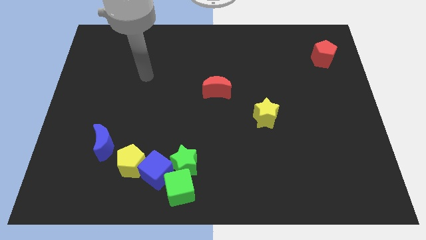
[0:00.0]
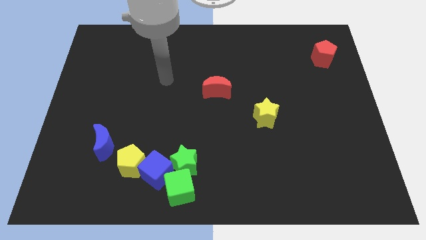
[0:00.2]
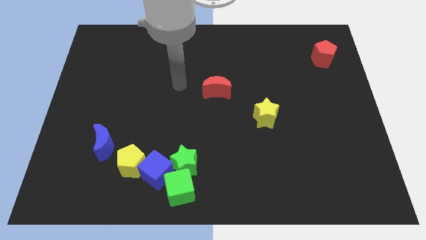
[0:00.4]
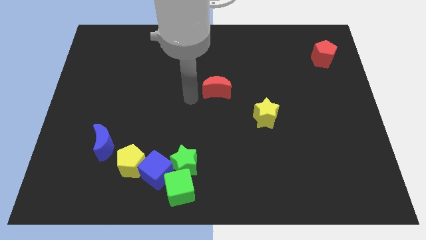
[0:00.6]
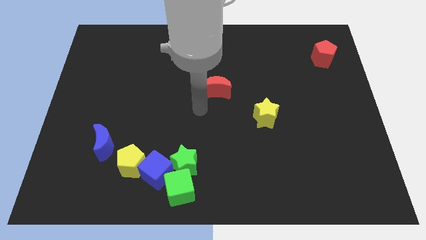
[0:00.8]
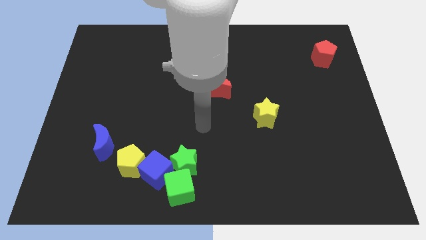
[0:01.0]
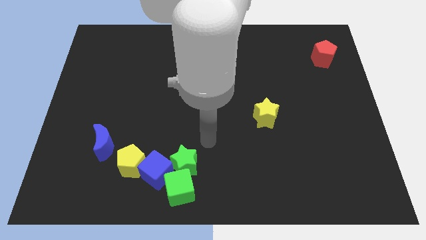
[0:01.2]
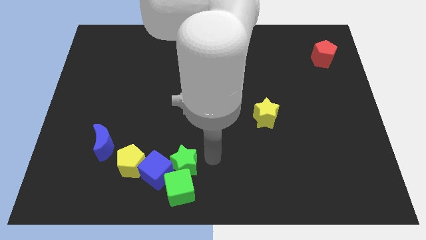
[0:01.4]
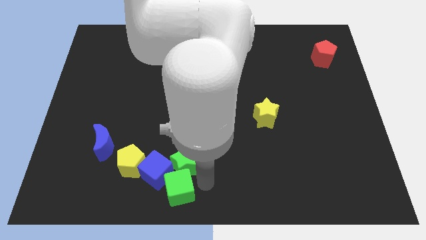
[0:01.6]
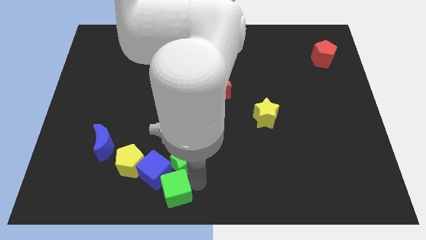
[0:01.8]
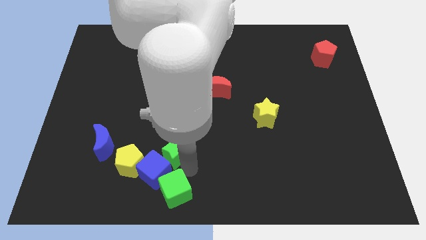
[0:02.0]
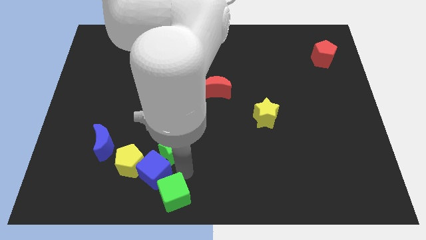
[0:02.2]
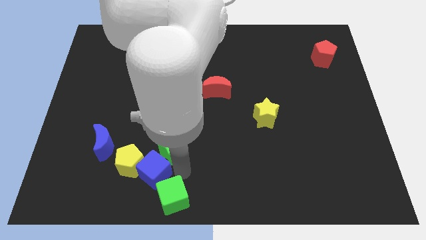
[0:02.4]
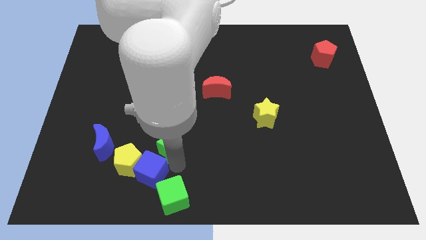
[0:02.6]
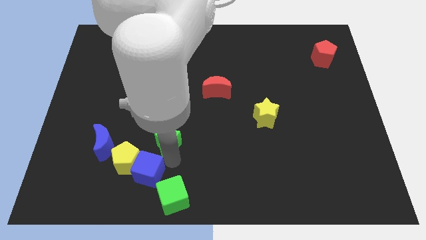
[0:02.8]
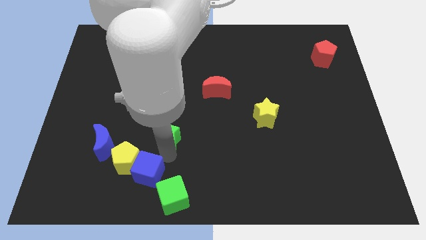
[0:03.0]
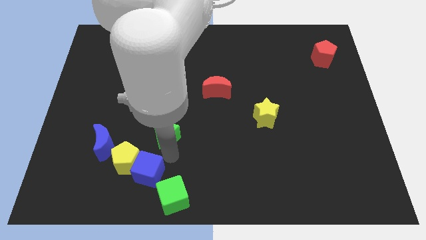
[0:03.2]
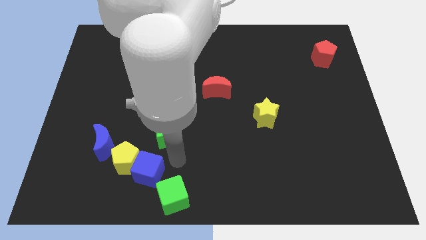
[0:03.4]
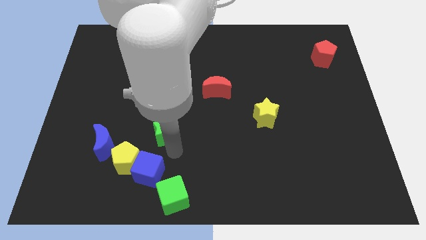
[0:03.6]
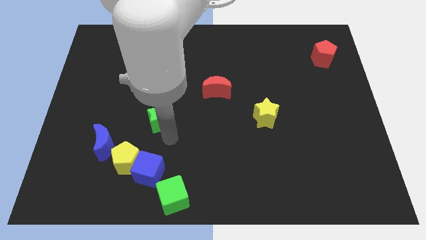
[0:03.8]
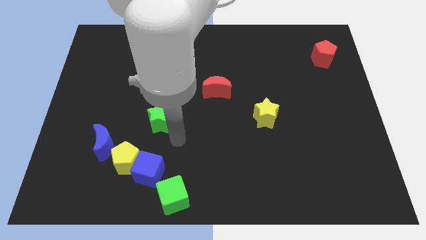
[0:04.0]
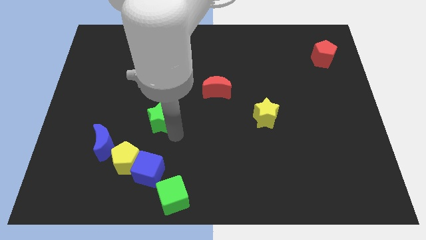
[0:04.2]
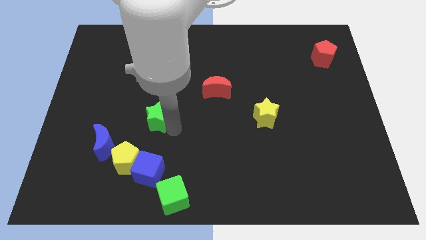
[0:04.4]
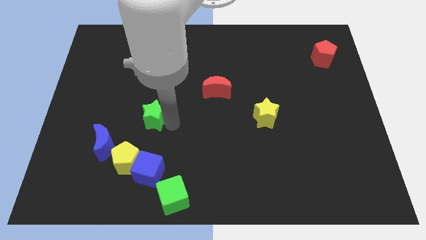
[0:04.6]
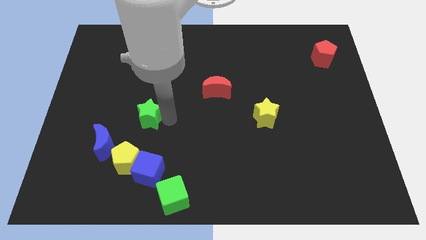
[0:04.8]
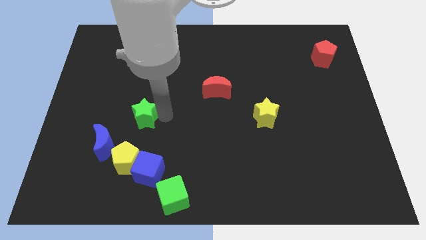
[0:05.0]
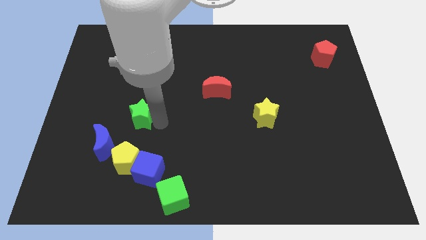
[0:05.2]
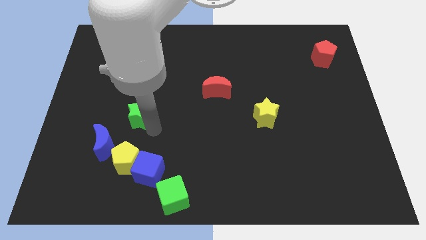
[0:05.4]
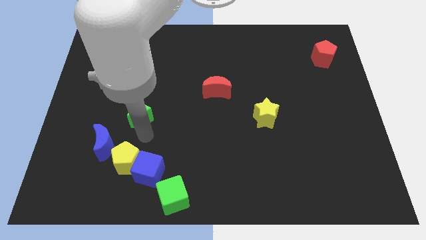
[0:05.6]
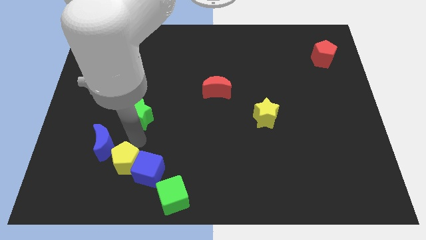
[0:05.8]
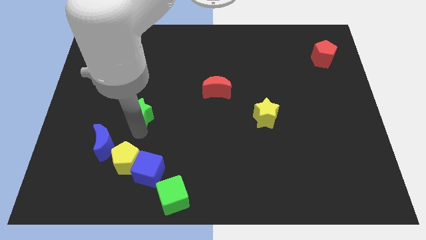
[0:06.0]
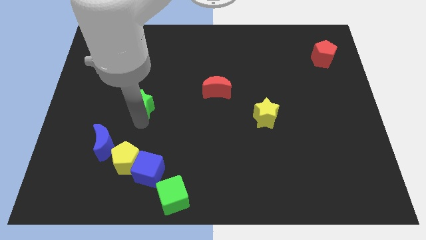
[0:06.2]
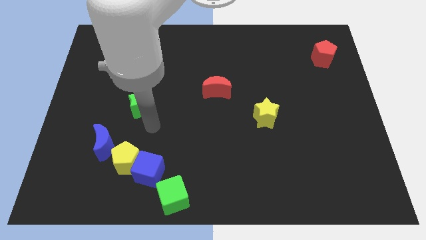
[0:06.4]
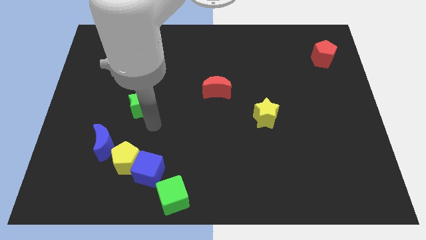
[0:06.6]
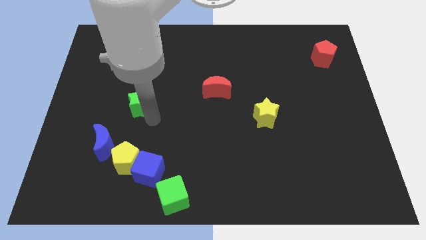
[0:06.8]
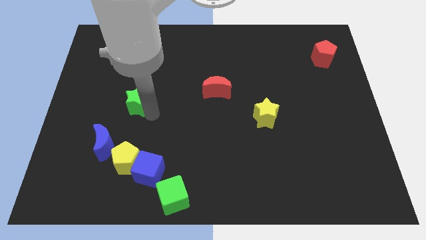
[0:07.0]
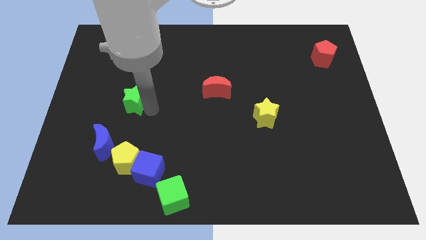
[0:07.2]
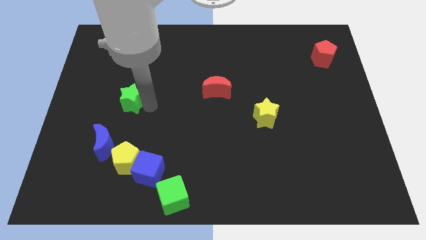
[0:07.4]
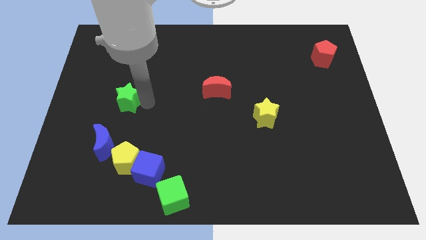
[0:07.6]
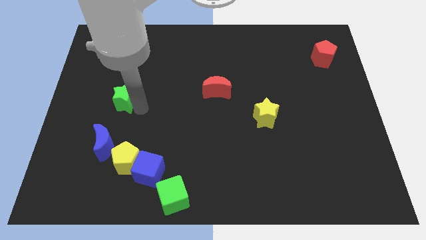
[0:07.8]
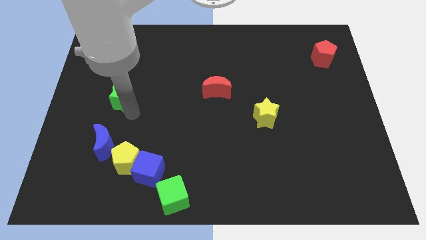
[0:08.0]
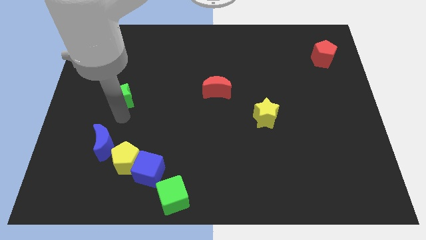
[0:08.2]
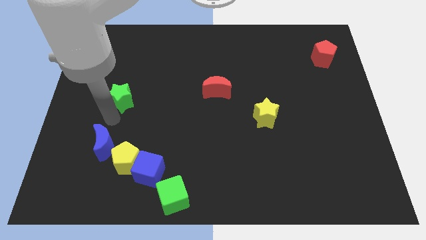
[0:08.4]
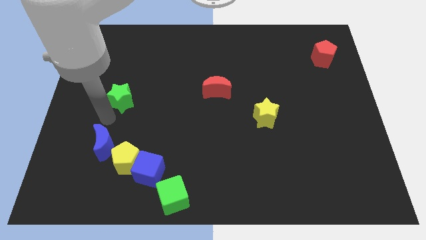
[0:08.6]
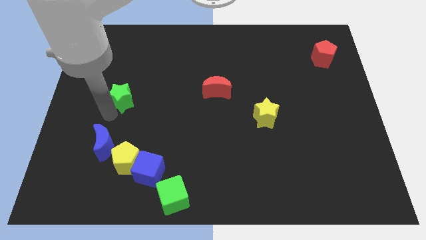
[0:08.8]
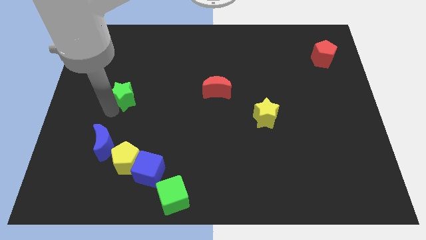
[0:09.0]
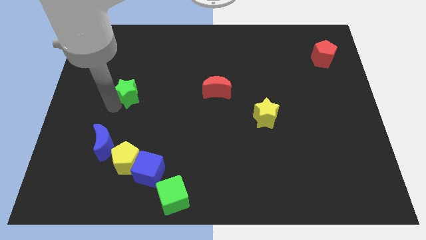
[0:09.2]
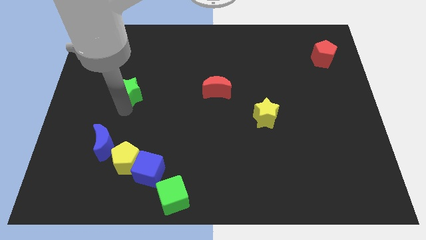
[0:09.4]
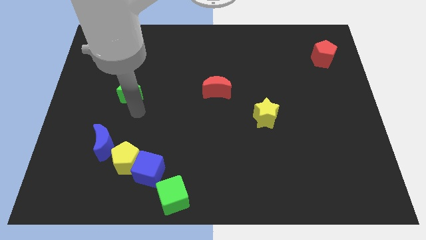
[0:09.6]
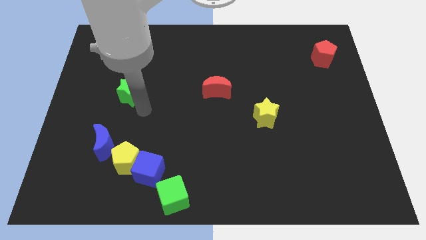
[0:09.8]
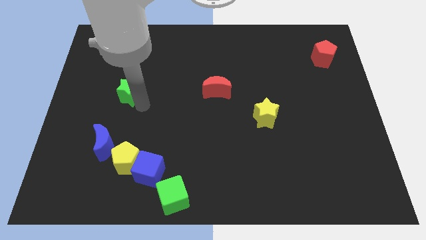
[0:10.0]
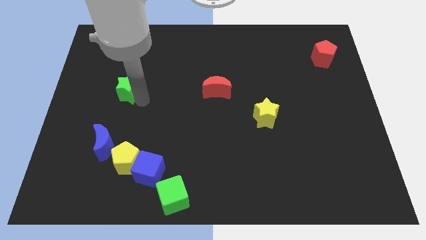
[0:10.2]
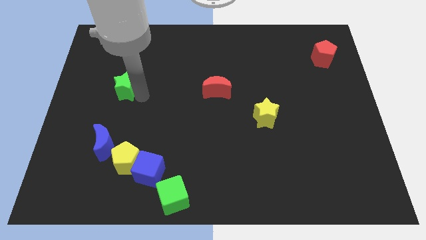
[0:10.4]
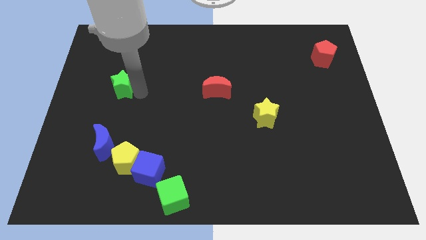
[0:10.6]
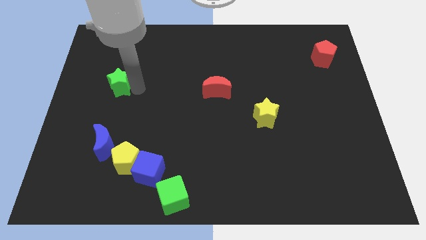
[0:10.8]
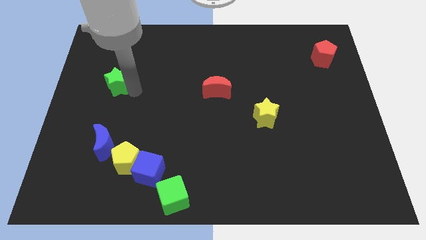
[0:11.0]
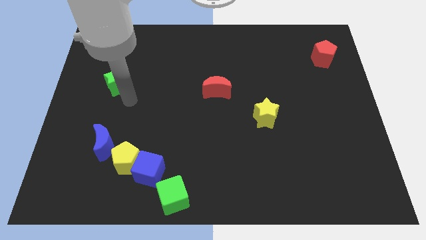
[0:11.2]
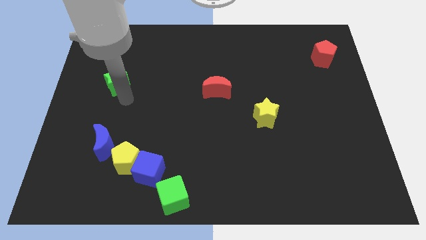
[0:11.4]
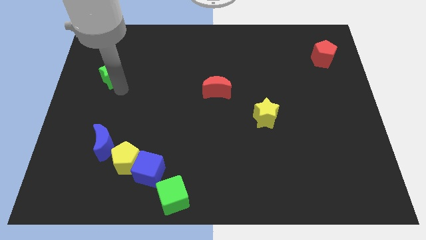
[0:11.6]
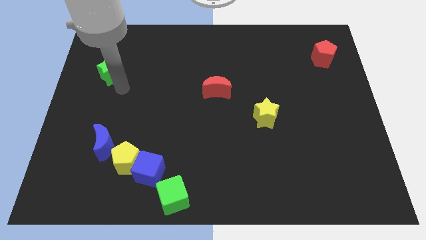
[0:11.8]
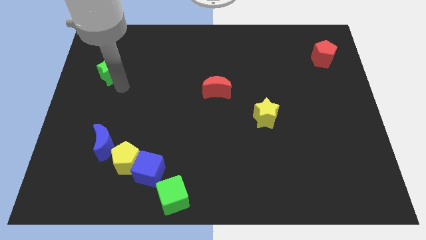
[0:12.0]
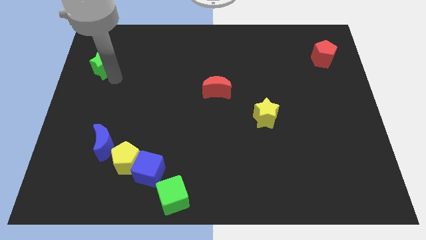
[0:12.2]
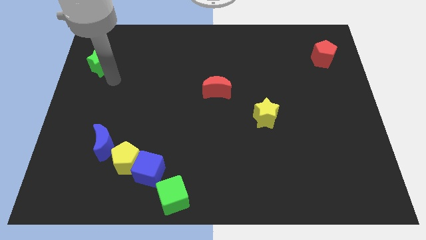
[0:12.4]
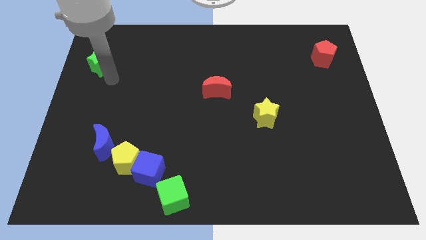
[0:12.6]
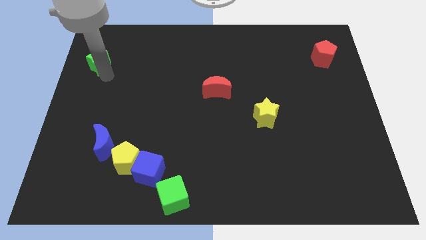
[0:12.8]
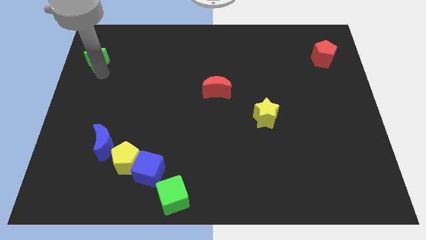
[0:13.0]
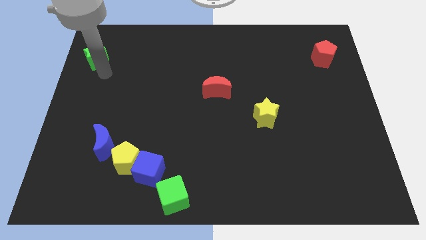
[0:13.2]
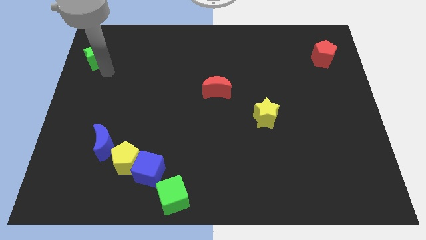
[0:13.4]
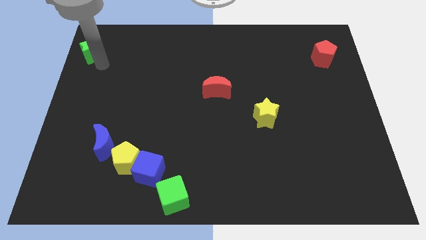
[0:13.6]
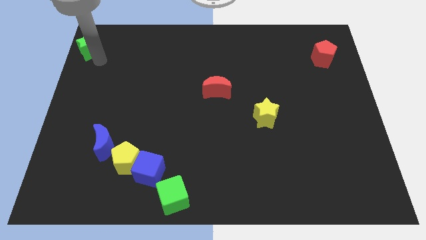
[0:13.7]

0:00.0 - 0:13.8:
push the green star to the top left of the board

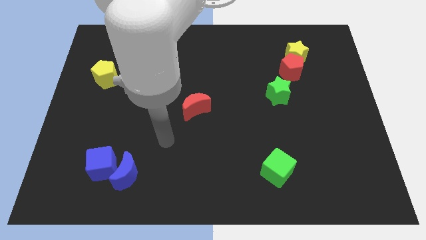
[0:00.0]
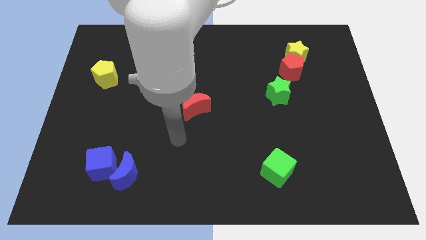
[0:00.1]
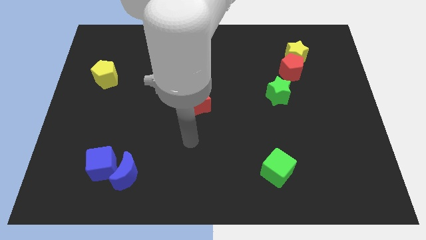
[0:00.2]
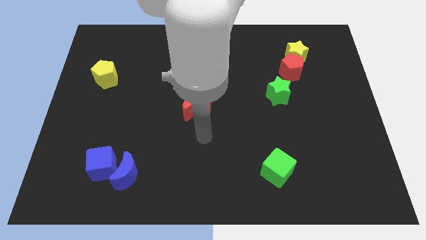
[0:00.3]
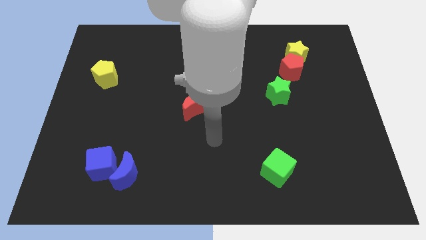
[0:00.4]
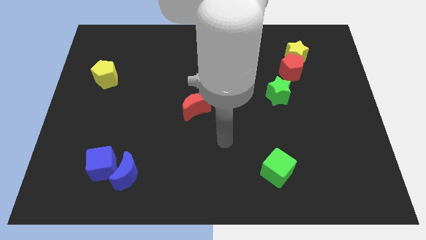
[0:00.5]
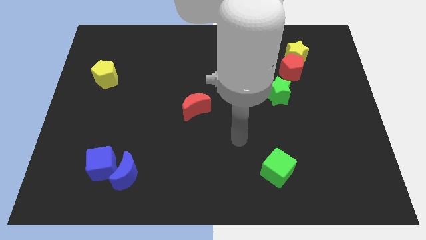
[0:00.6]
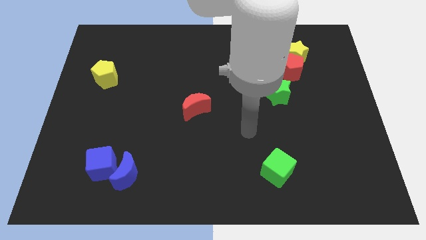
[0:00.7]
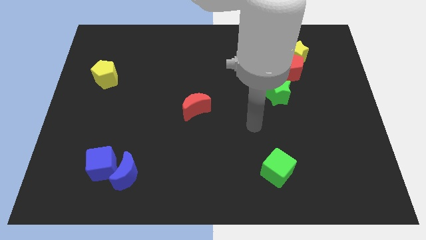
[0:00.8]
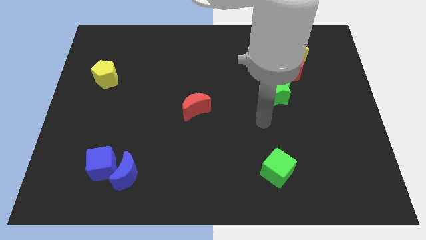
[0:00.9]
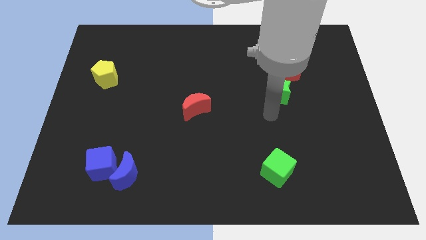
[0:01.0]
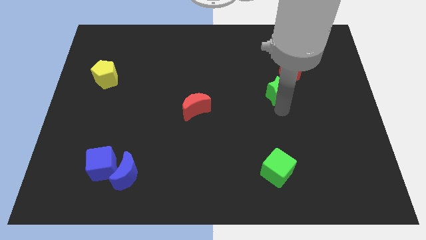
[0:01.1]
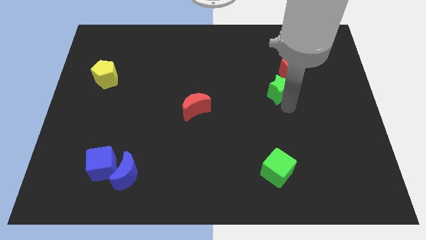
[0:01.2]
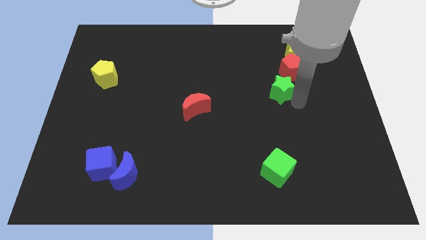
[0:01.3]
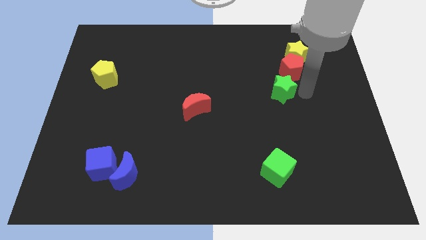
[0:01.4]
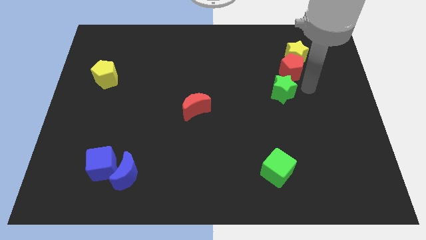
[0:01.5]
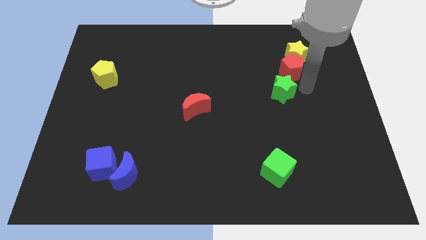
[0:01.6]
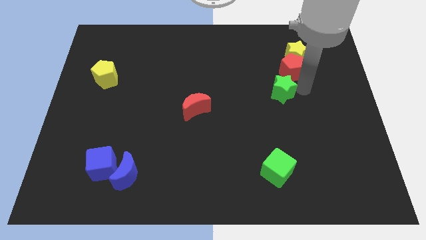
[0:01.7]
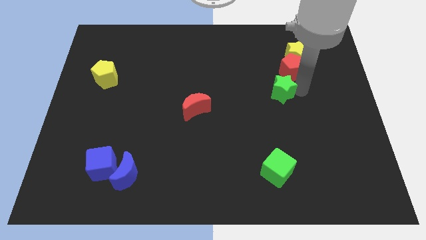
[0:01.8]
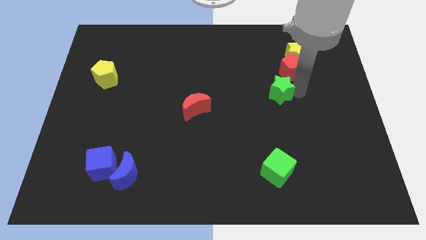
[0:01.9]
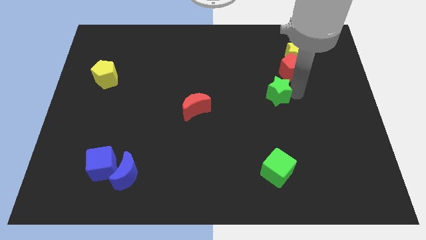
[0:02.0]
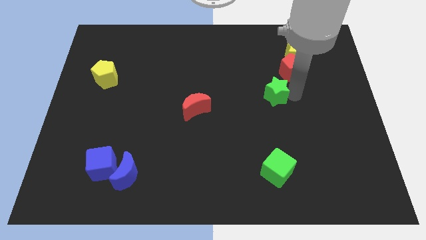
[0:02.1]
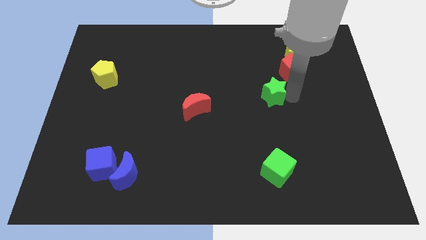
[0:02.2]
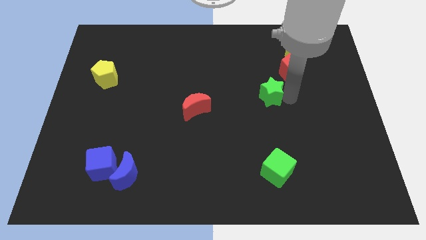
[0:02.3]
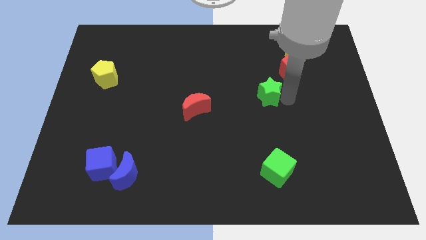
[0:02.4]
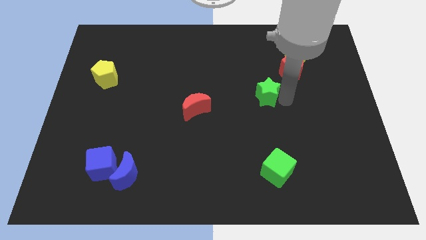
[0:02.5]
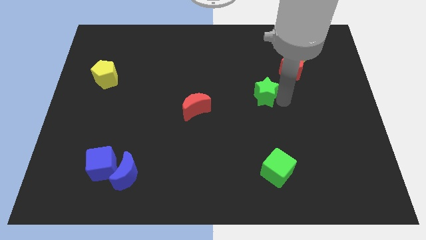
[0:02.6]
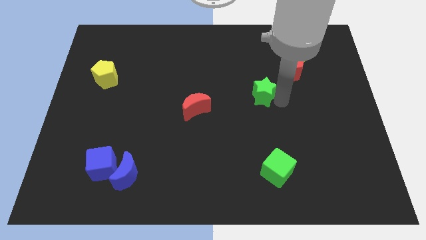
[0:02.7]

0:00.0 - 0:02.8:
slide the green star to the middle of the board
